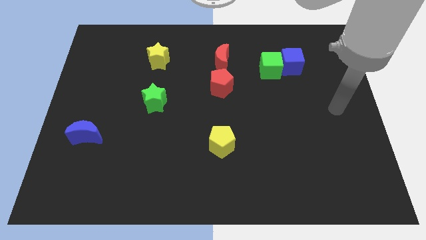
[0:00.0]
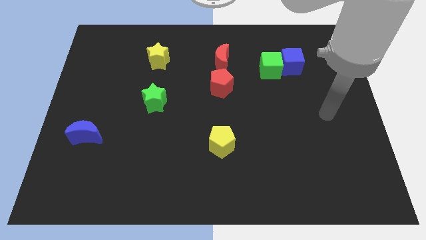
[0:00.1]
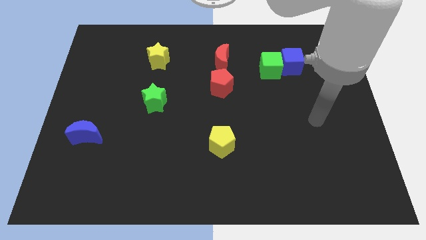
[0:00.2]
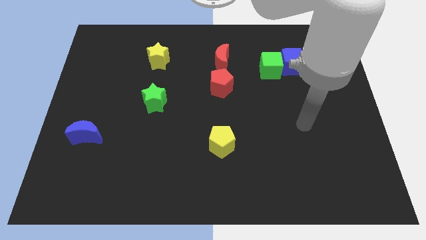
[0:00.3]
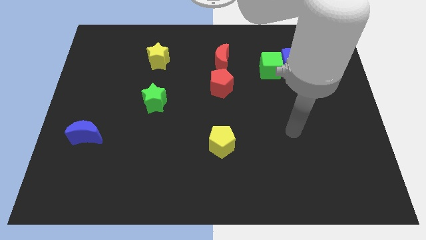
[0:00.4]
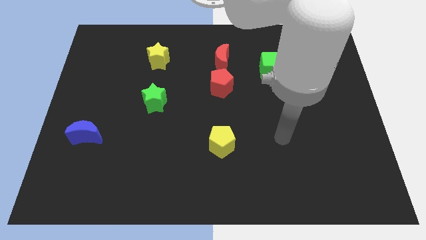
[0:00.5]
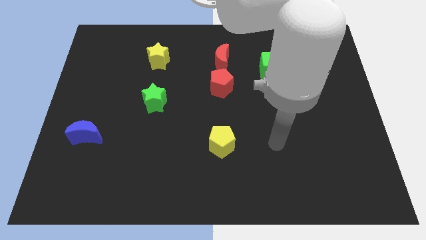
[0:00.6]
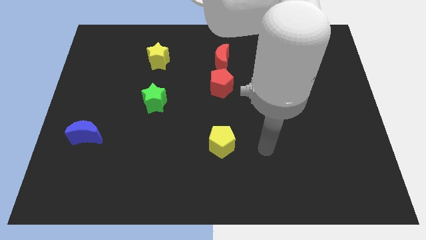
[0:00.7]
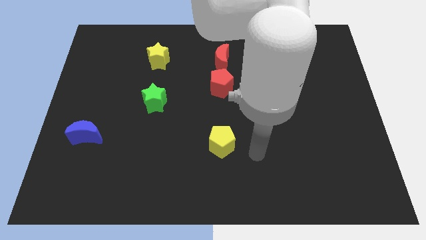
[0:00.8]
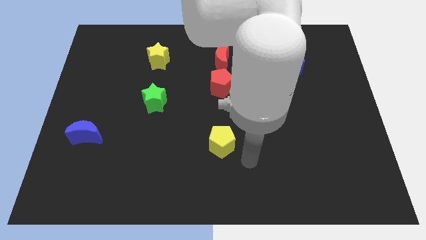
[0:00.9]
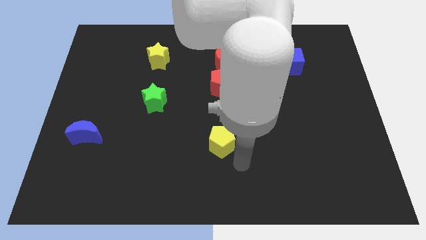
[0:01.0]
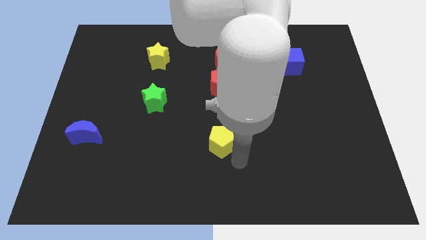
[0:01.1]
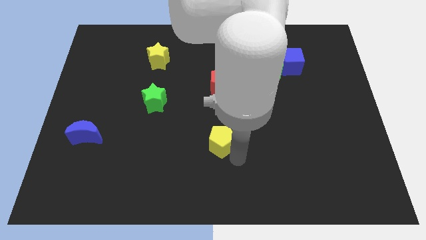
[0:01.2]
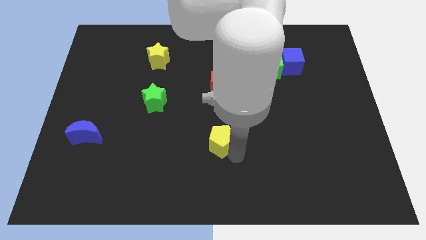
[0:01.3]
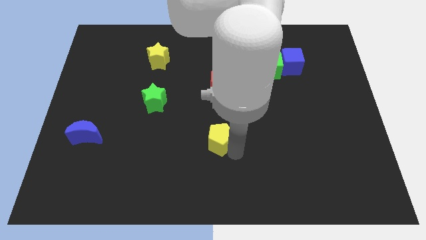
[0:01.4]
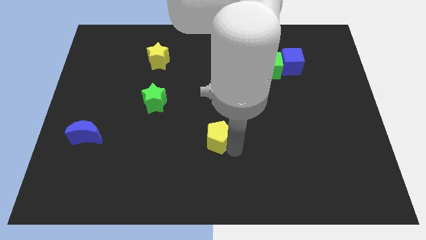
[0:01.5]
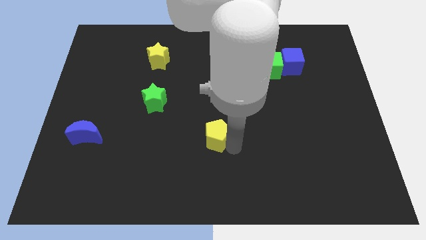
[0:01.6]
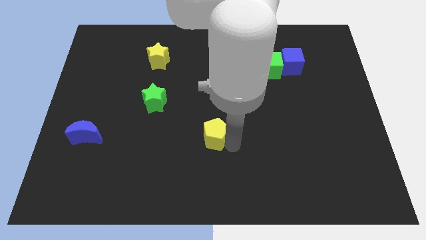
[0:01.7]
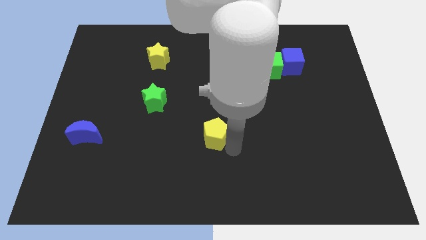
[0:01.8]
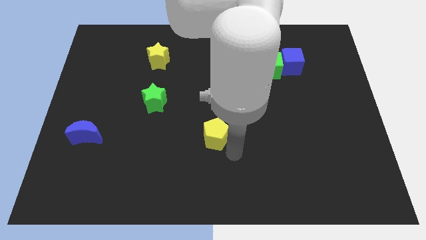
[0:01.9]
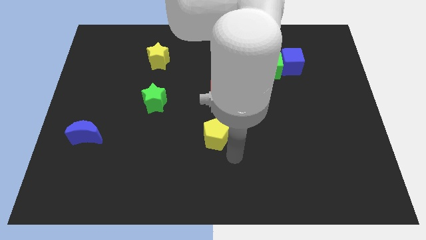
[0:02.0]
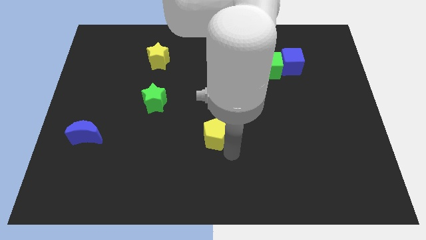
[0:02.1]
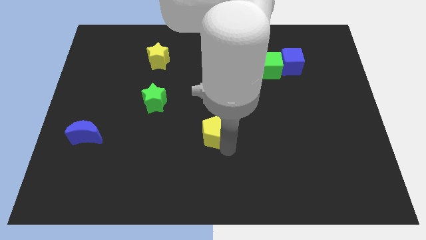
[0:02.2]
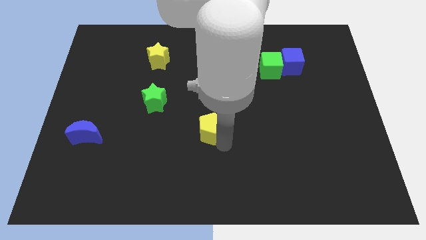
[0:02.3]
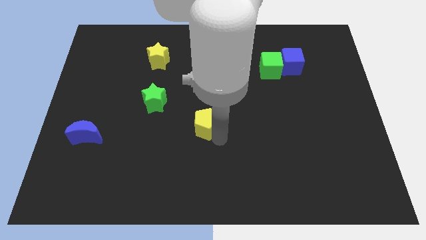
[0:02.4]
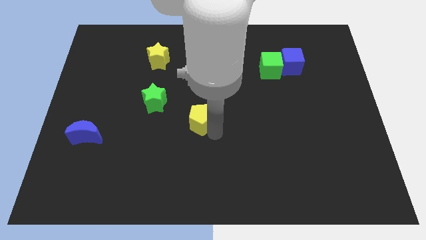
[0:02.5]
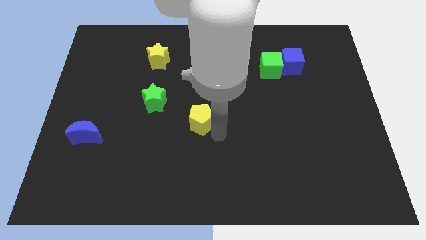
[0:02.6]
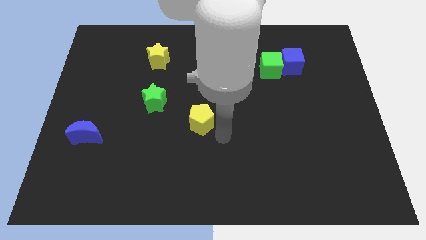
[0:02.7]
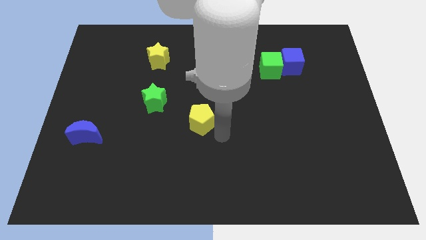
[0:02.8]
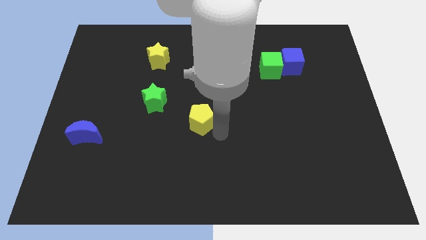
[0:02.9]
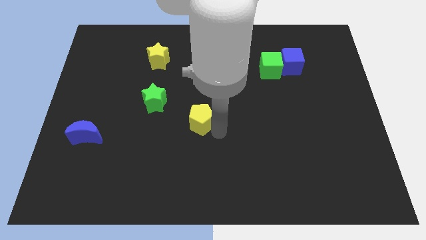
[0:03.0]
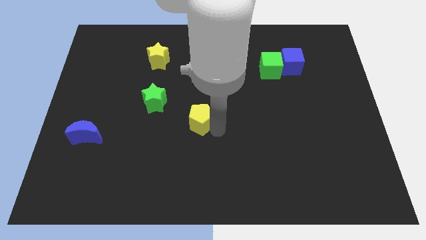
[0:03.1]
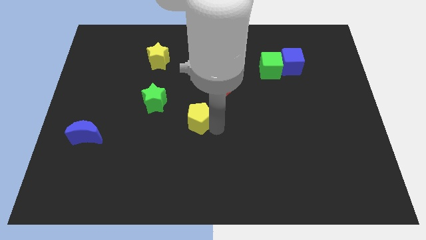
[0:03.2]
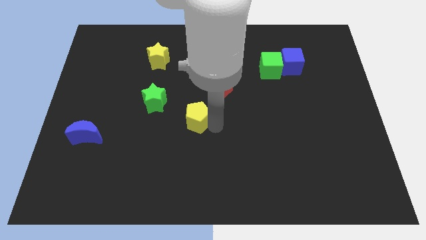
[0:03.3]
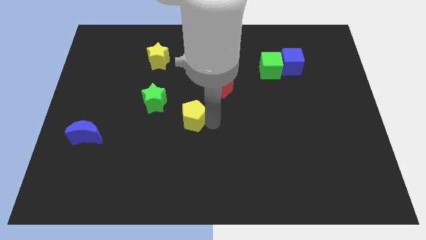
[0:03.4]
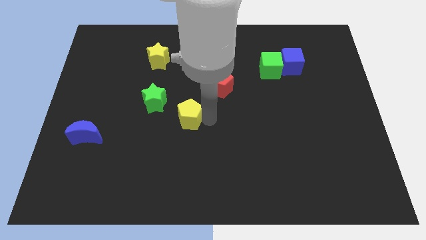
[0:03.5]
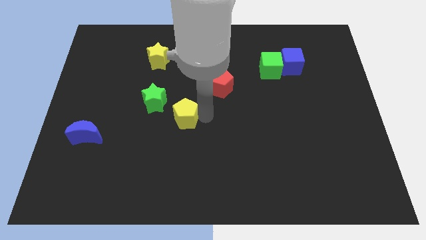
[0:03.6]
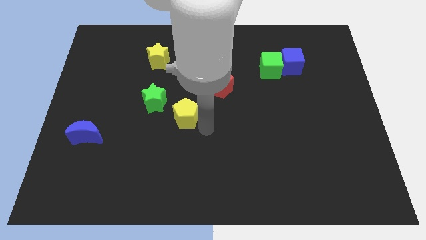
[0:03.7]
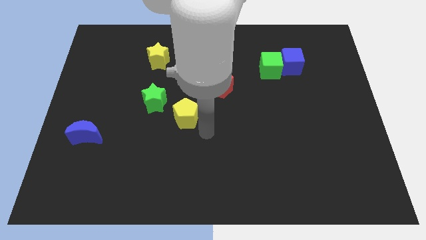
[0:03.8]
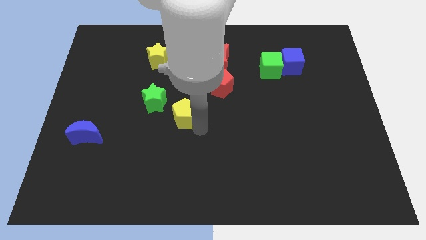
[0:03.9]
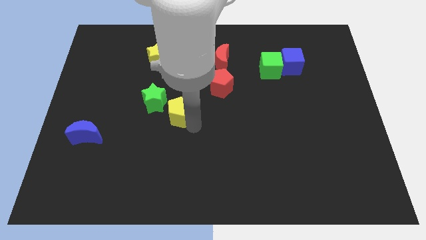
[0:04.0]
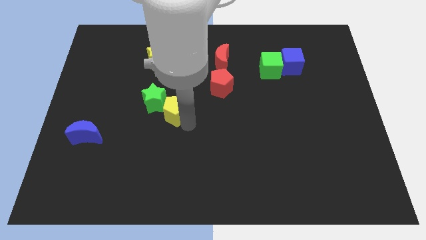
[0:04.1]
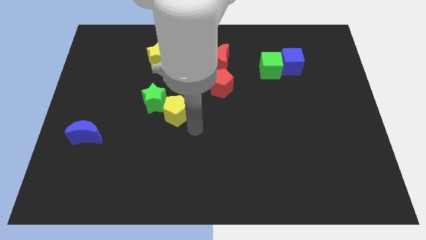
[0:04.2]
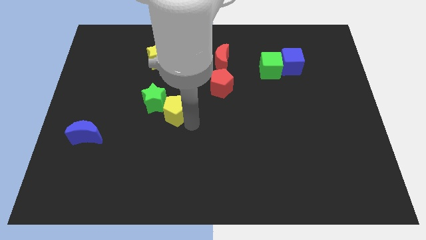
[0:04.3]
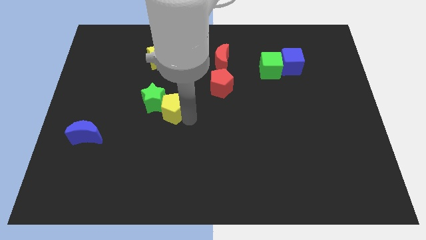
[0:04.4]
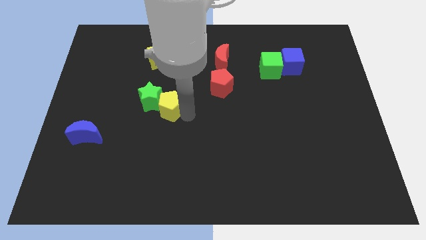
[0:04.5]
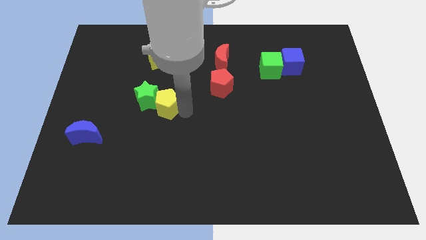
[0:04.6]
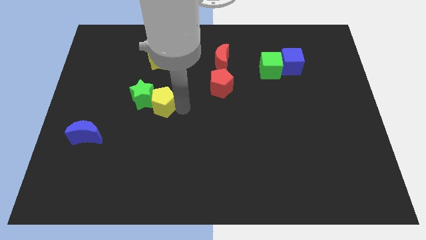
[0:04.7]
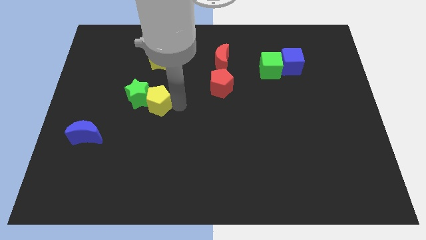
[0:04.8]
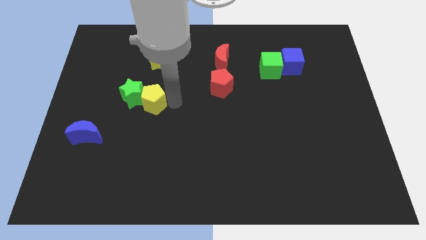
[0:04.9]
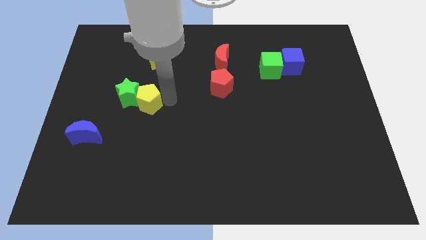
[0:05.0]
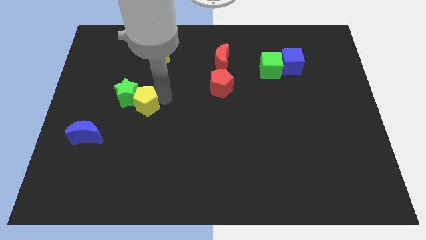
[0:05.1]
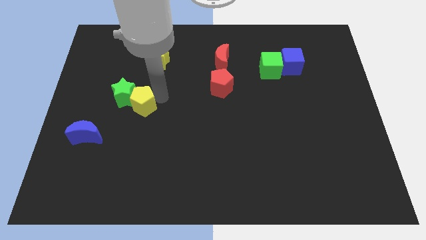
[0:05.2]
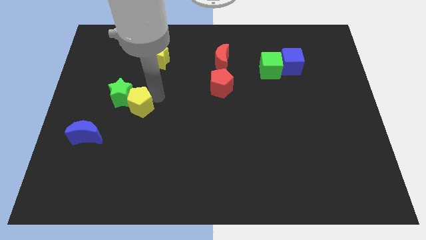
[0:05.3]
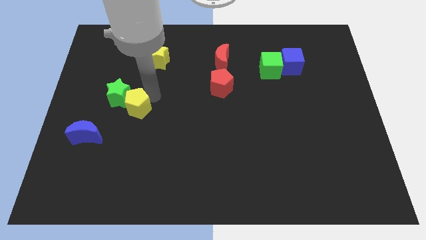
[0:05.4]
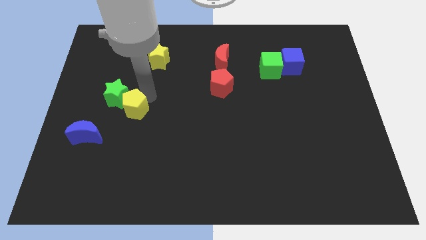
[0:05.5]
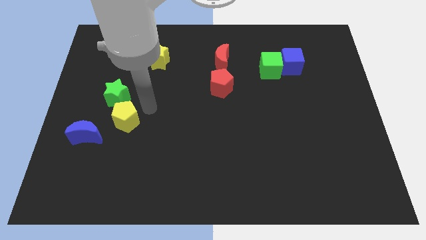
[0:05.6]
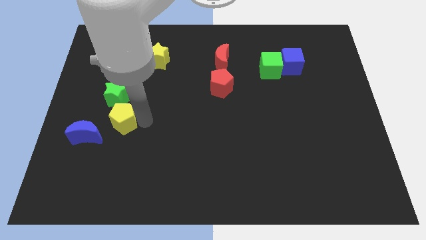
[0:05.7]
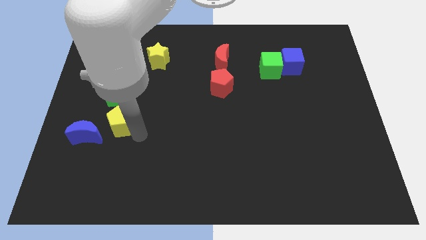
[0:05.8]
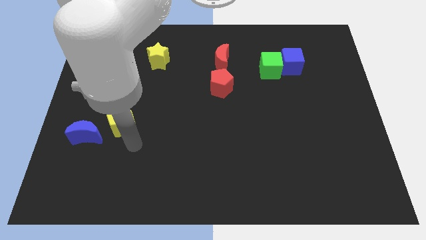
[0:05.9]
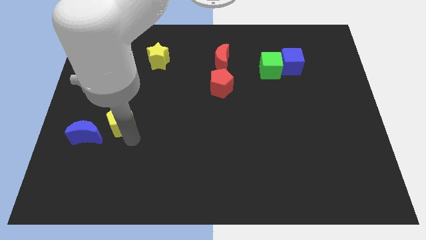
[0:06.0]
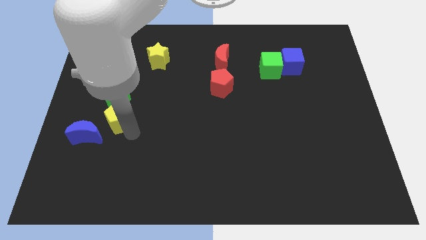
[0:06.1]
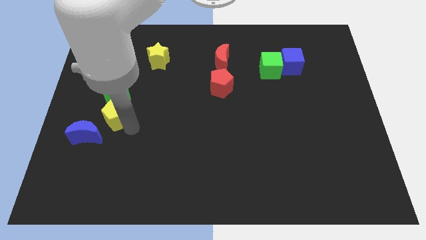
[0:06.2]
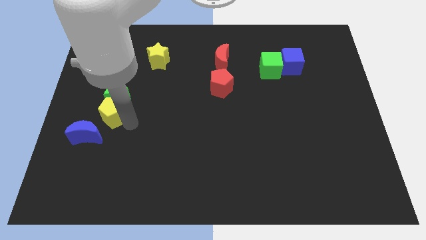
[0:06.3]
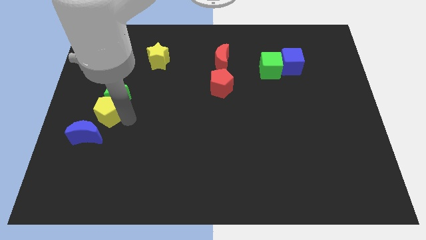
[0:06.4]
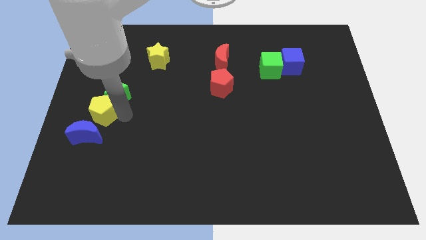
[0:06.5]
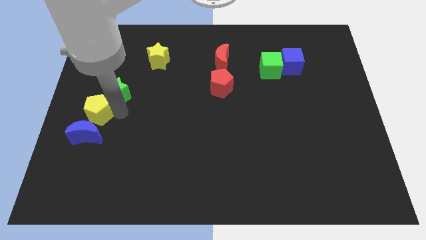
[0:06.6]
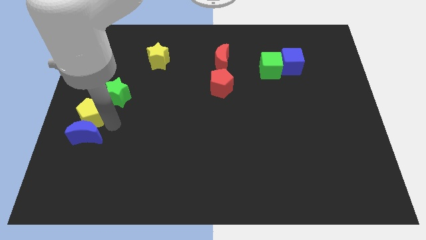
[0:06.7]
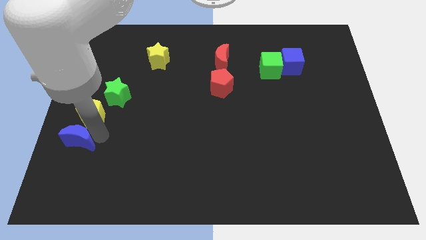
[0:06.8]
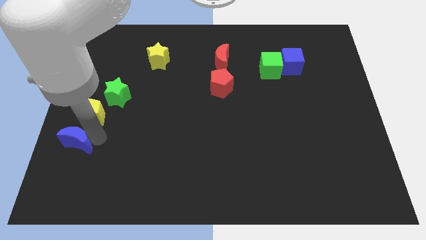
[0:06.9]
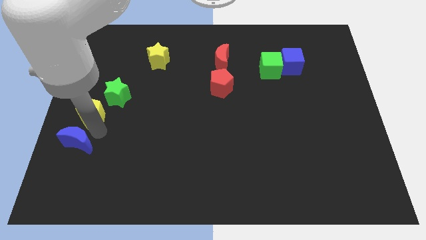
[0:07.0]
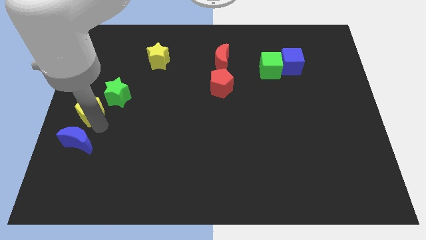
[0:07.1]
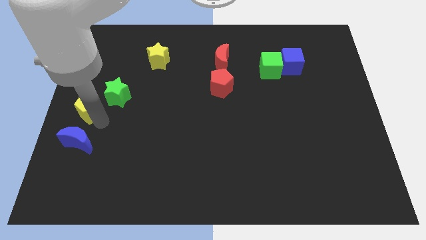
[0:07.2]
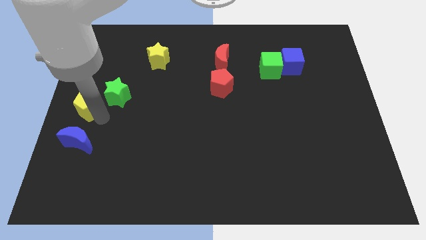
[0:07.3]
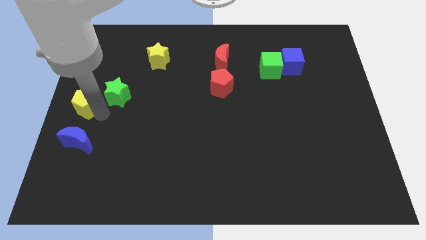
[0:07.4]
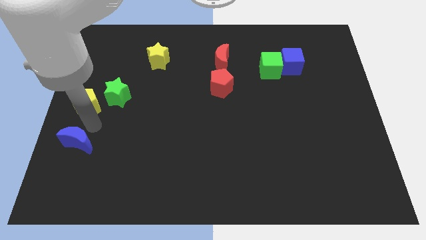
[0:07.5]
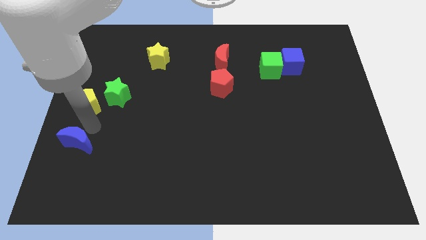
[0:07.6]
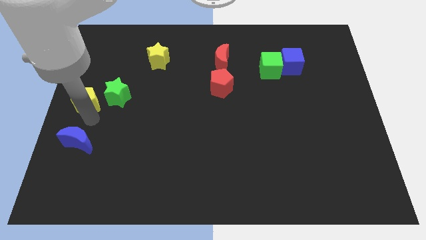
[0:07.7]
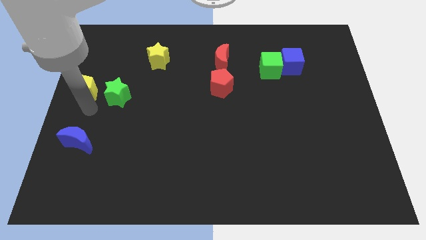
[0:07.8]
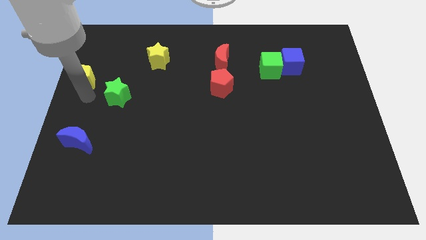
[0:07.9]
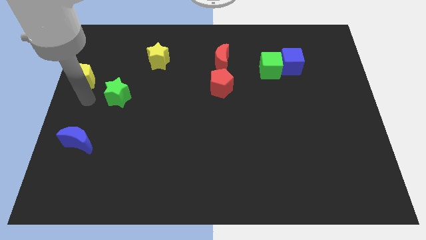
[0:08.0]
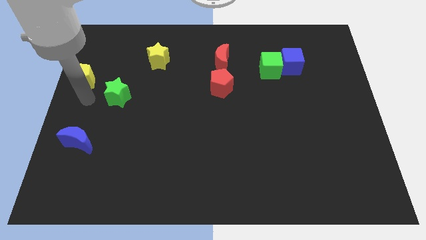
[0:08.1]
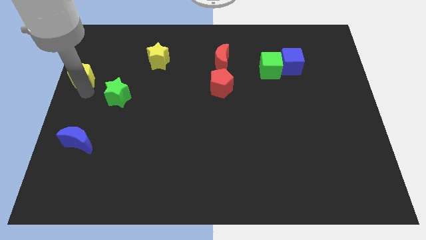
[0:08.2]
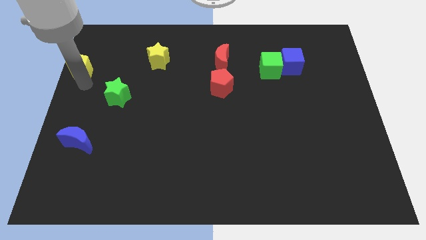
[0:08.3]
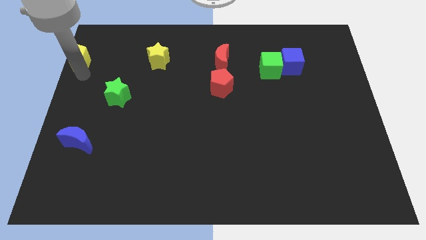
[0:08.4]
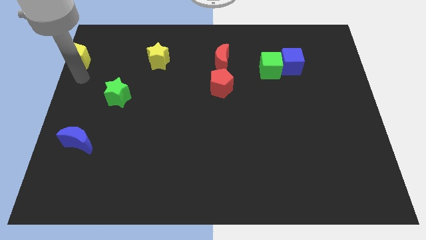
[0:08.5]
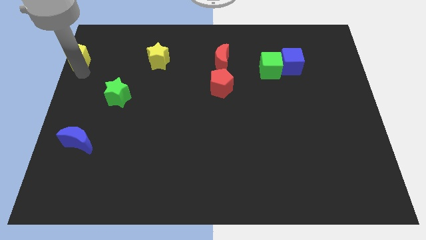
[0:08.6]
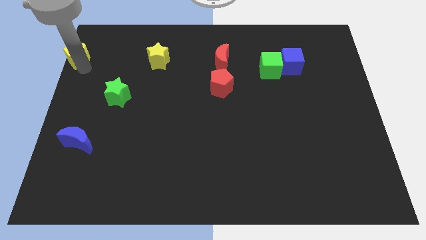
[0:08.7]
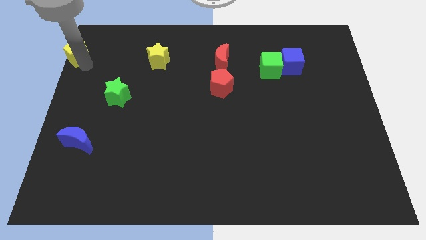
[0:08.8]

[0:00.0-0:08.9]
push the yellow pentagon to the top left
